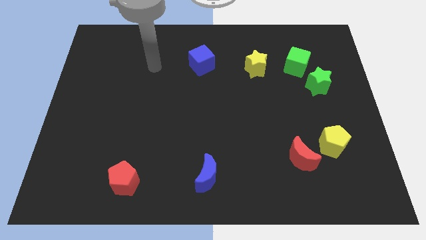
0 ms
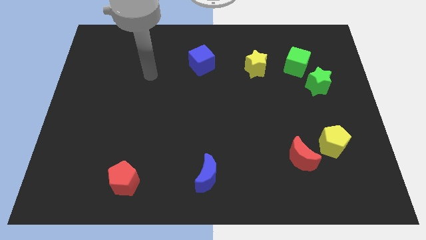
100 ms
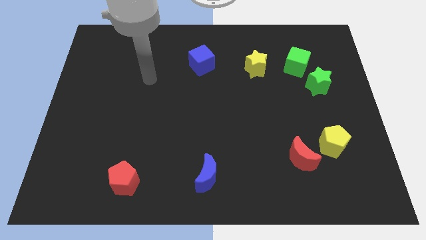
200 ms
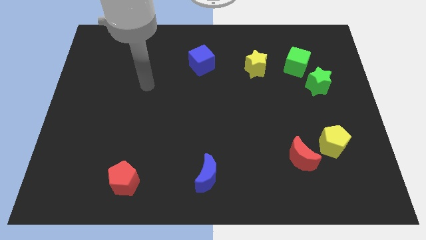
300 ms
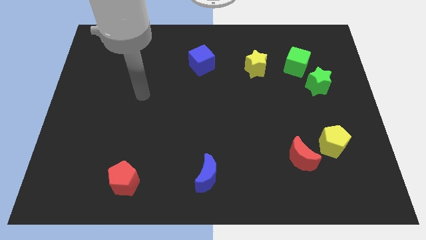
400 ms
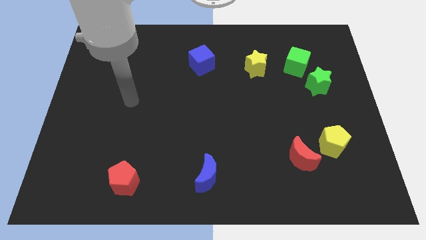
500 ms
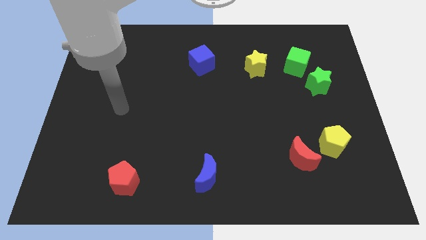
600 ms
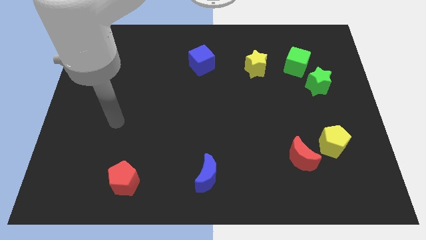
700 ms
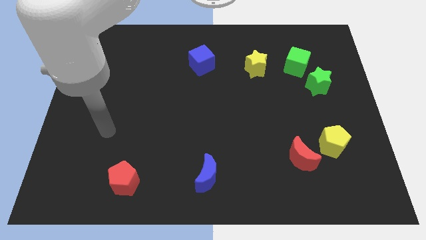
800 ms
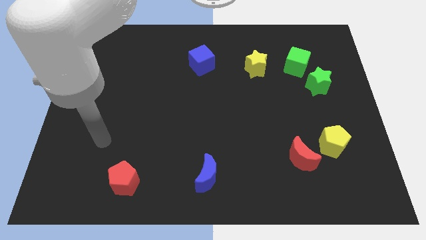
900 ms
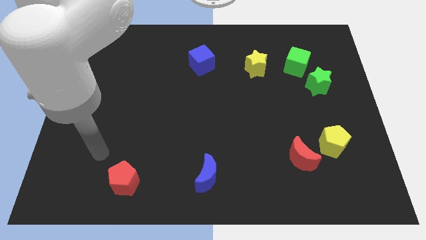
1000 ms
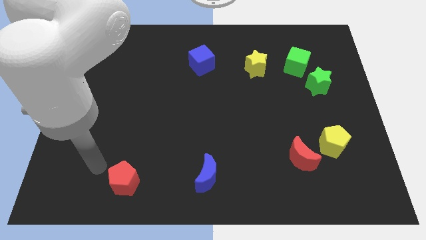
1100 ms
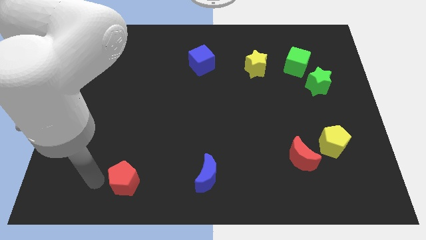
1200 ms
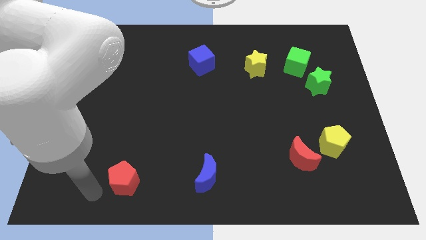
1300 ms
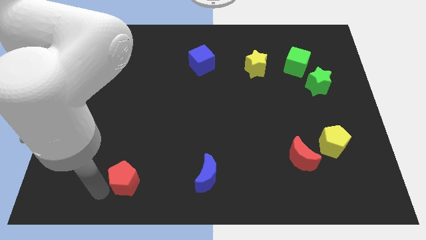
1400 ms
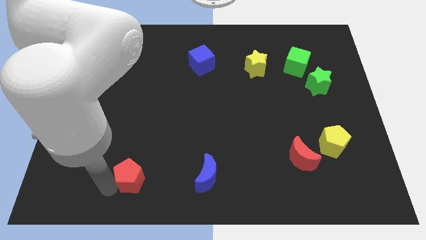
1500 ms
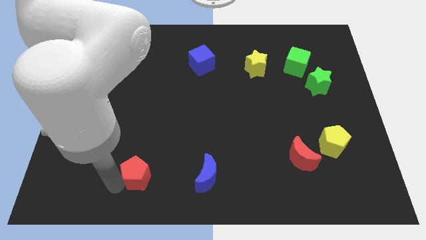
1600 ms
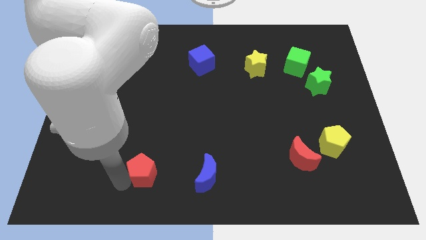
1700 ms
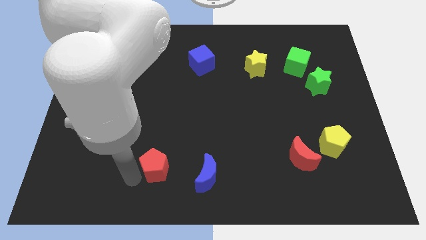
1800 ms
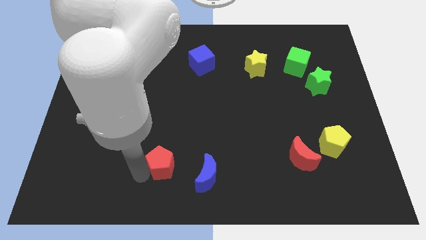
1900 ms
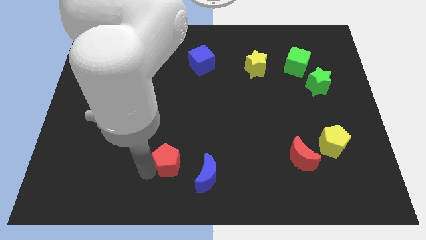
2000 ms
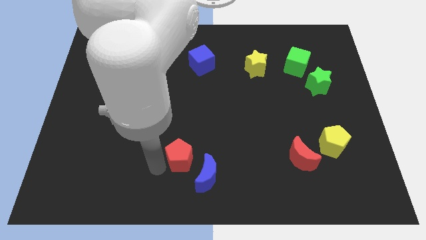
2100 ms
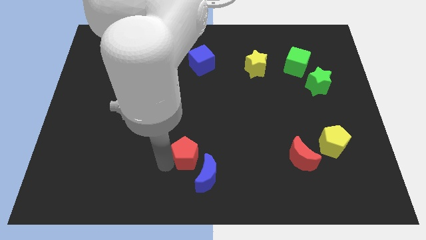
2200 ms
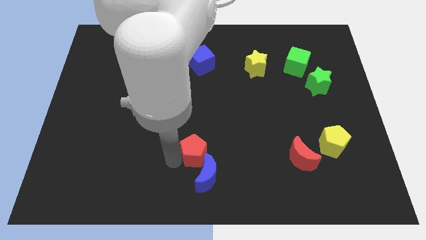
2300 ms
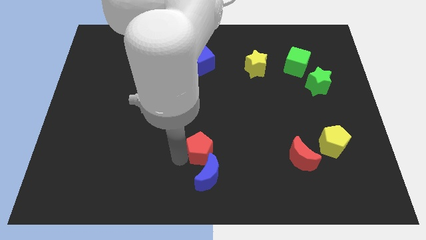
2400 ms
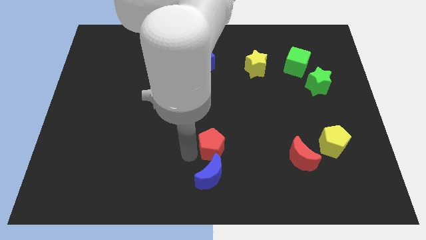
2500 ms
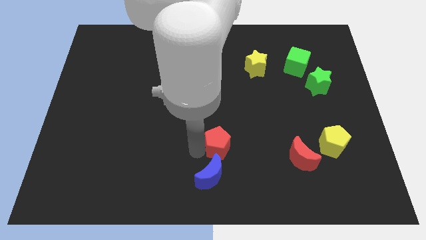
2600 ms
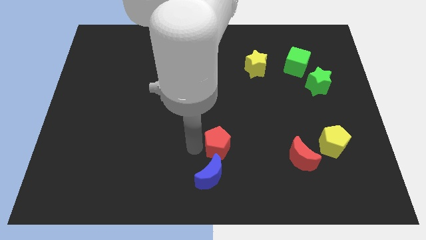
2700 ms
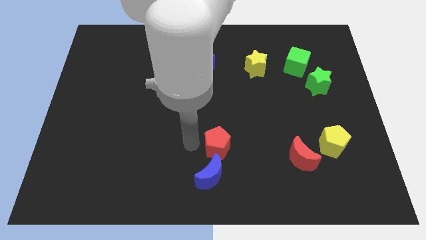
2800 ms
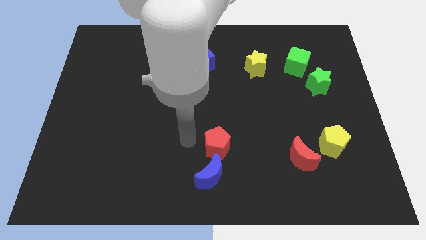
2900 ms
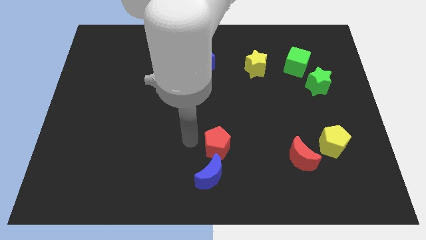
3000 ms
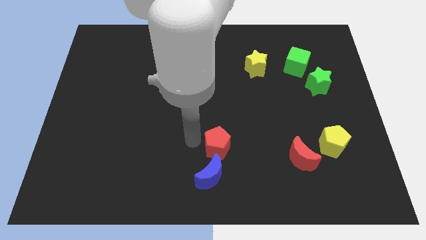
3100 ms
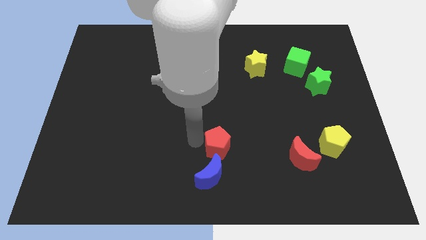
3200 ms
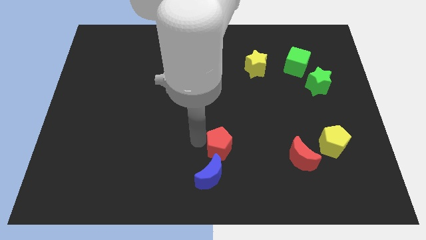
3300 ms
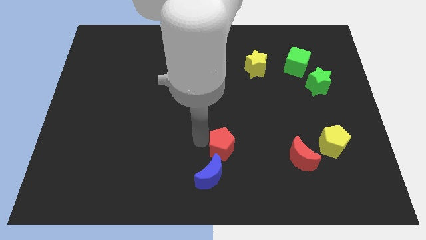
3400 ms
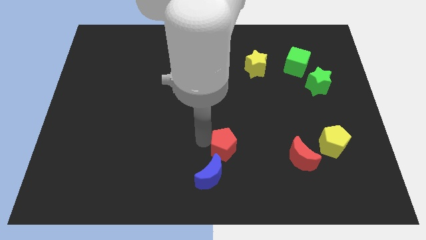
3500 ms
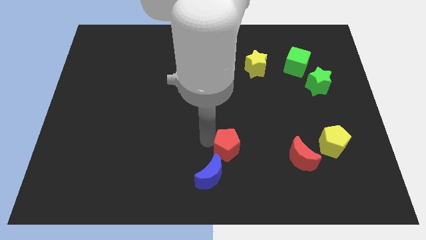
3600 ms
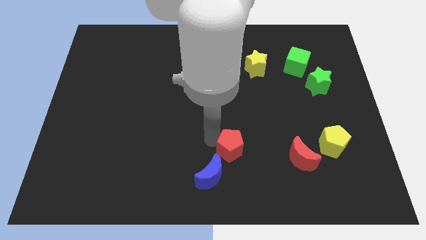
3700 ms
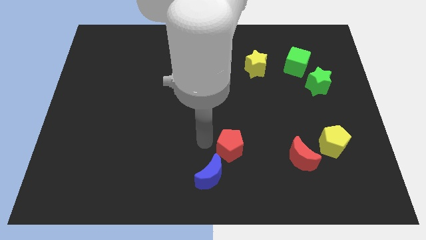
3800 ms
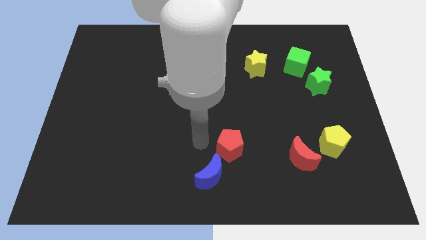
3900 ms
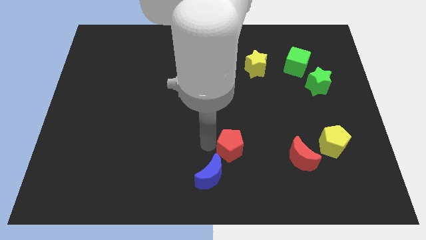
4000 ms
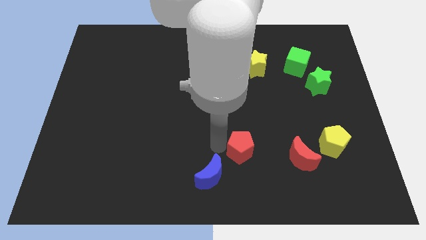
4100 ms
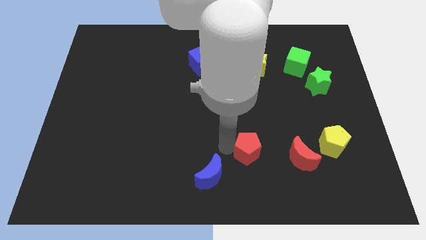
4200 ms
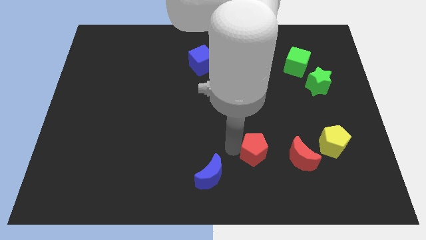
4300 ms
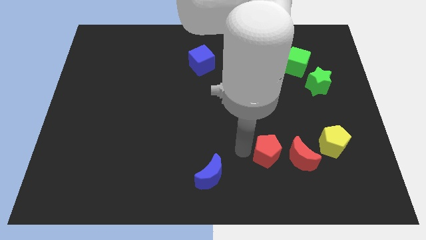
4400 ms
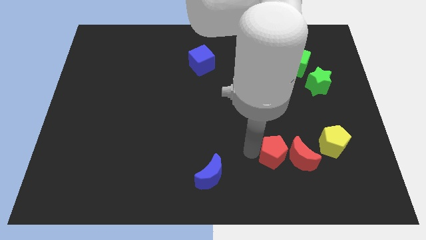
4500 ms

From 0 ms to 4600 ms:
push the red pentagon towards the red moon

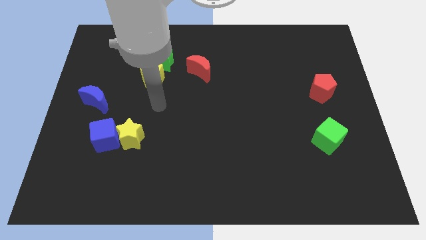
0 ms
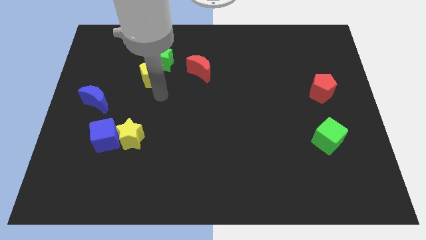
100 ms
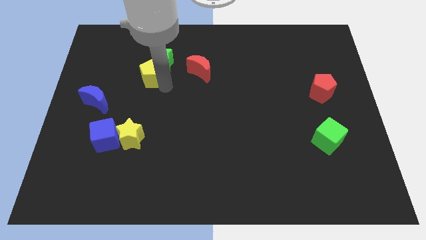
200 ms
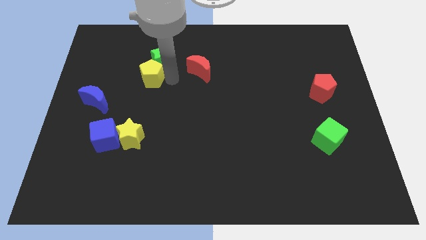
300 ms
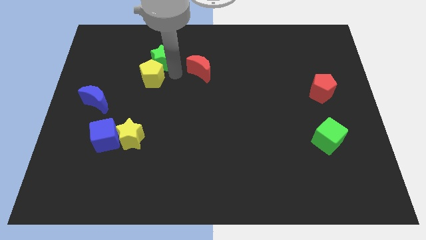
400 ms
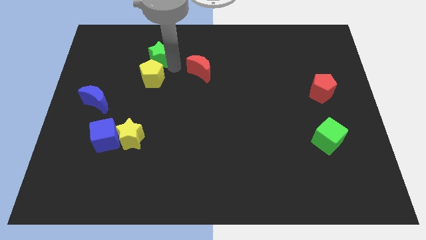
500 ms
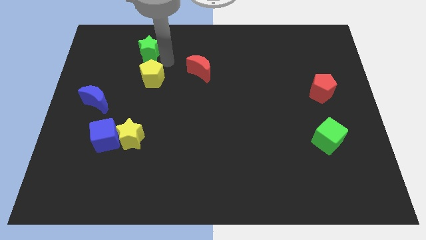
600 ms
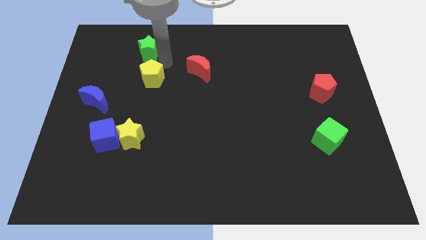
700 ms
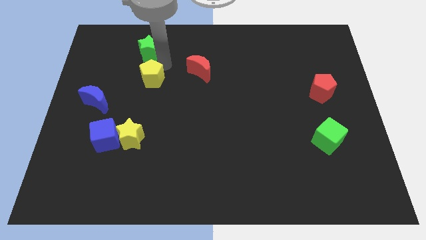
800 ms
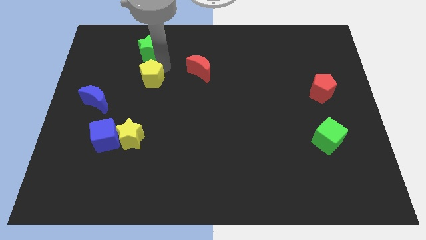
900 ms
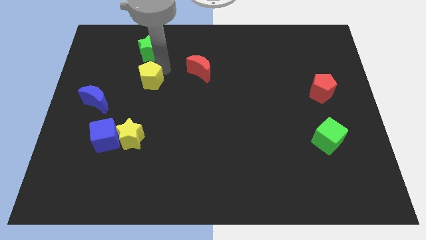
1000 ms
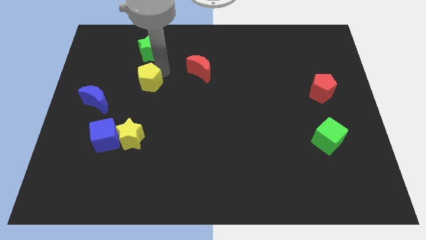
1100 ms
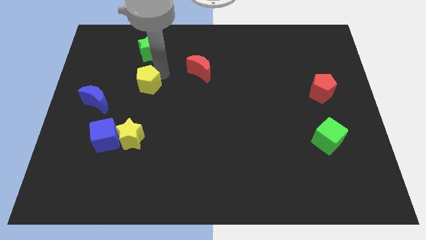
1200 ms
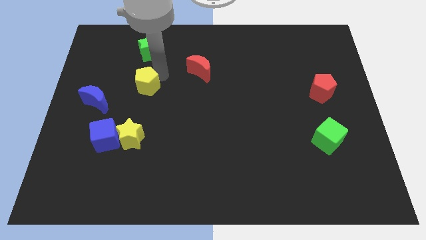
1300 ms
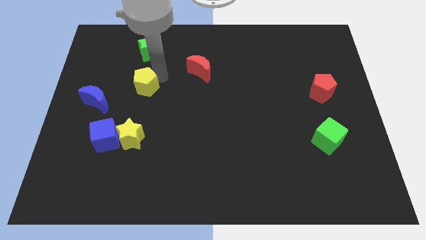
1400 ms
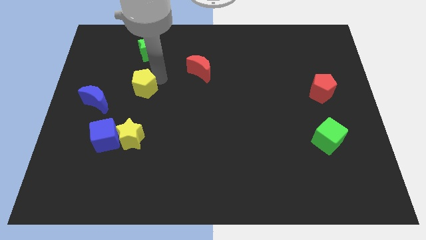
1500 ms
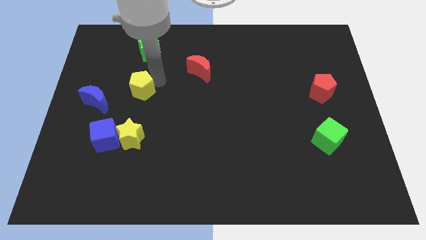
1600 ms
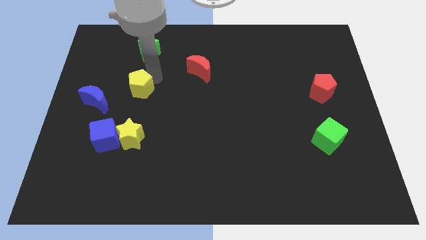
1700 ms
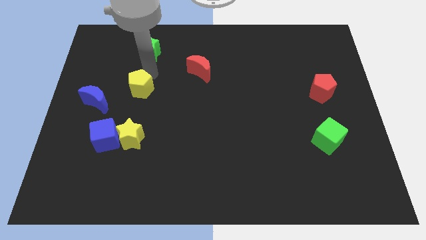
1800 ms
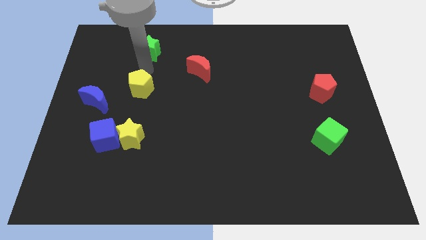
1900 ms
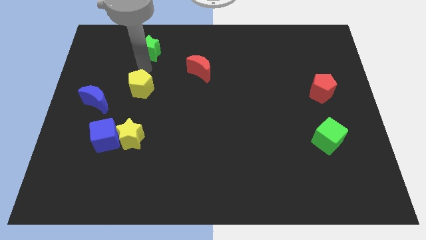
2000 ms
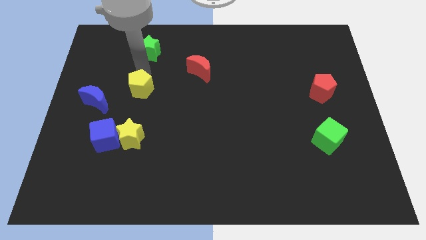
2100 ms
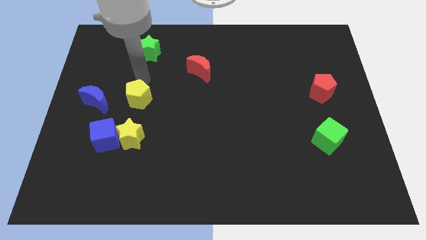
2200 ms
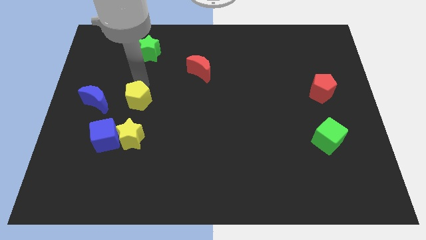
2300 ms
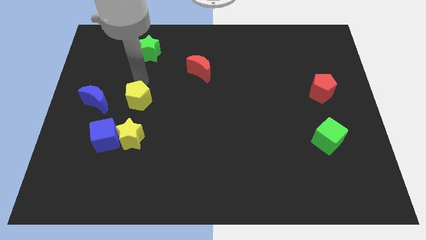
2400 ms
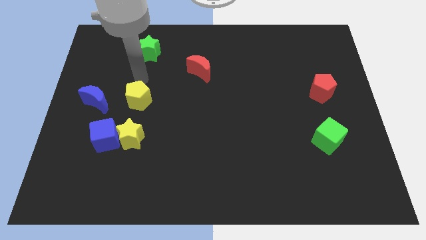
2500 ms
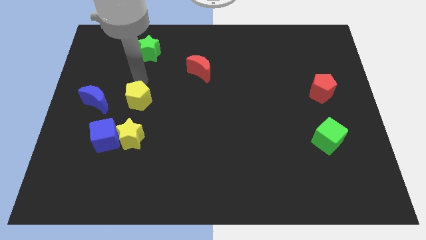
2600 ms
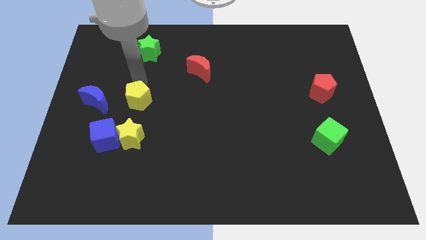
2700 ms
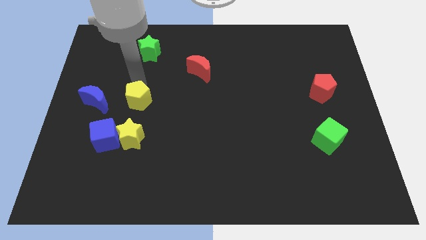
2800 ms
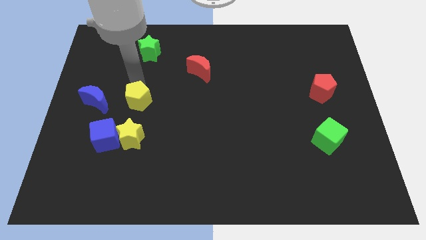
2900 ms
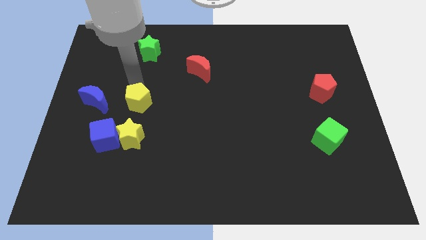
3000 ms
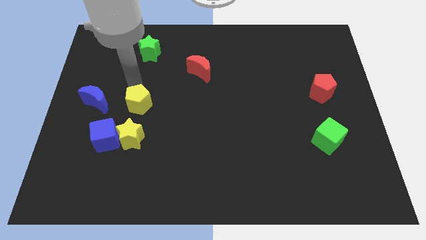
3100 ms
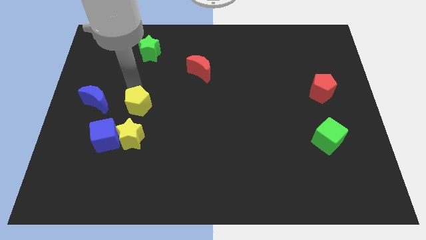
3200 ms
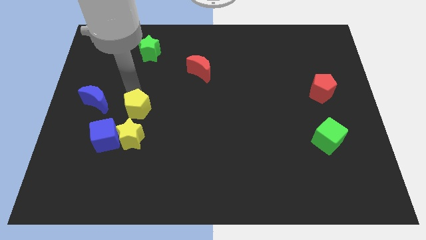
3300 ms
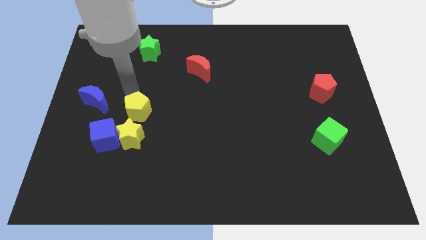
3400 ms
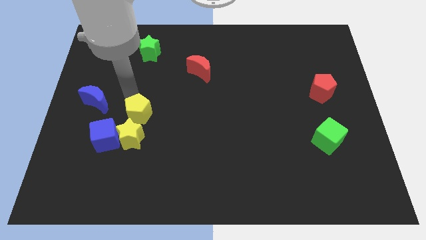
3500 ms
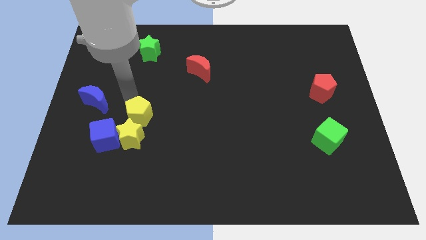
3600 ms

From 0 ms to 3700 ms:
put the yellow pentagon close to the yellow star
